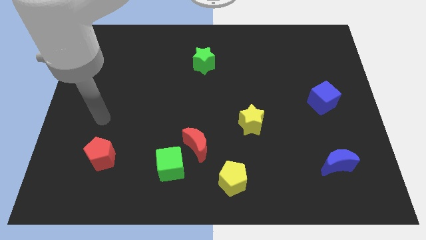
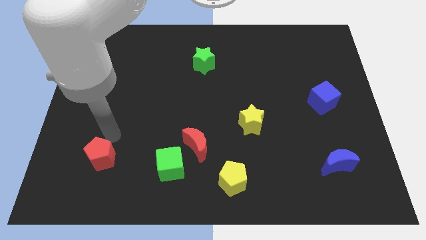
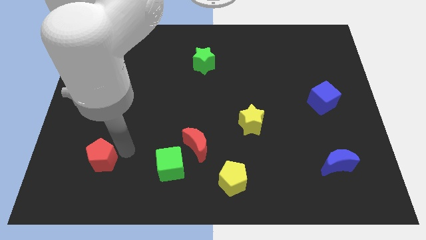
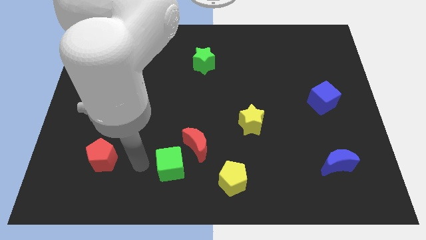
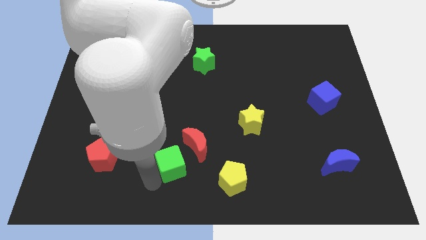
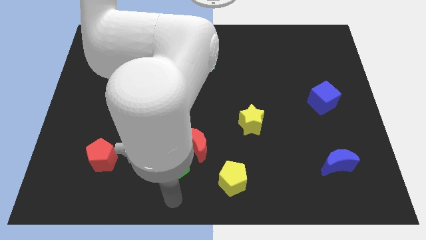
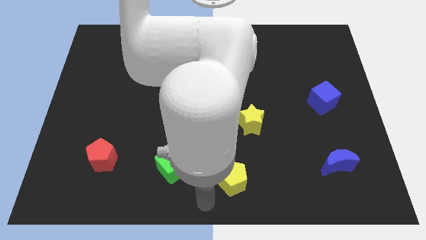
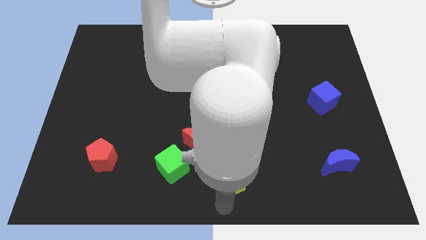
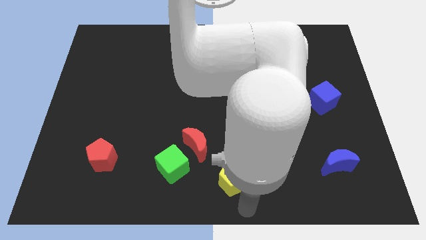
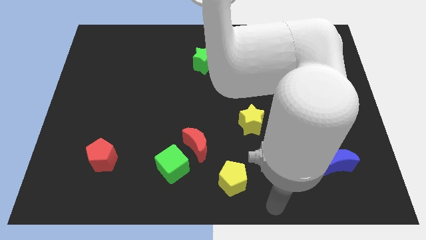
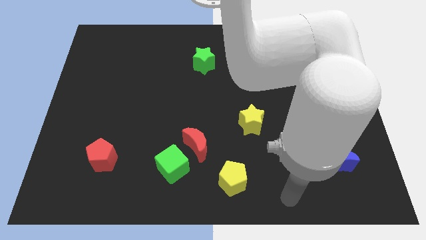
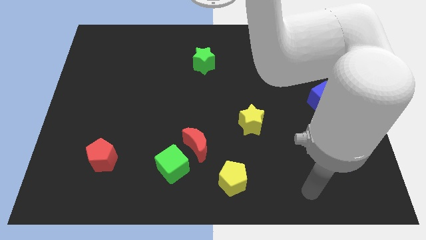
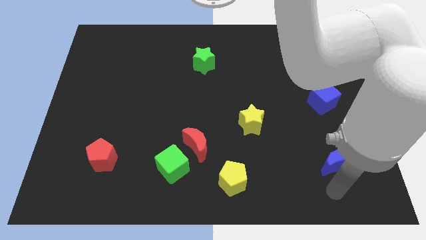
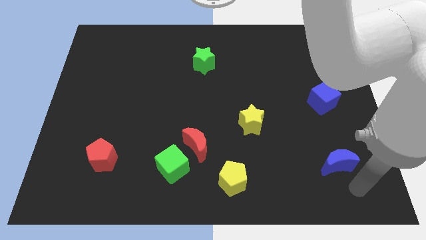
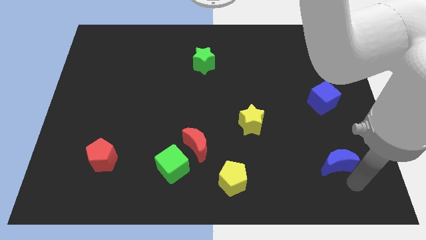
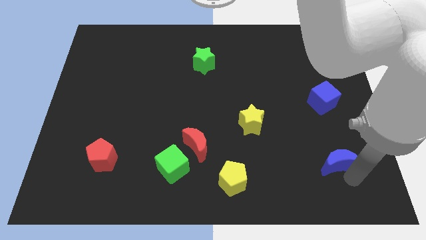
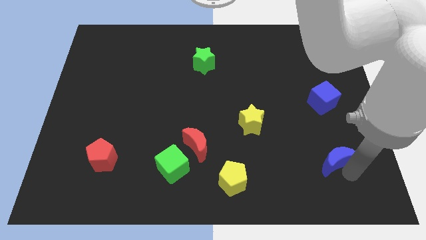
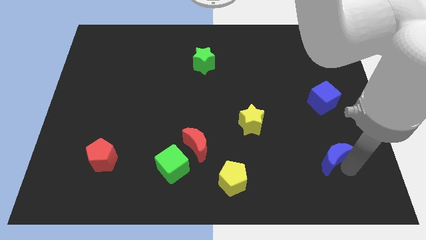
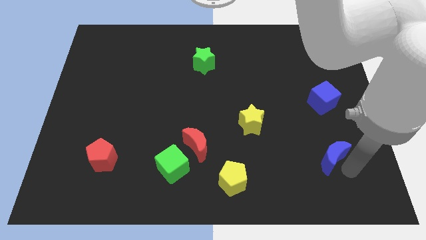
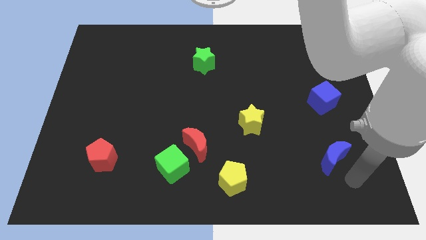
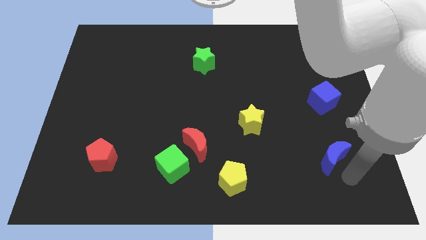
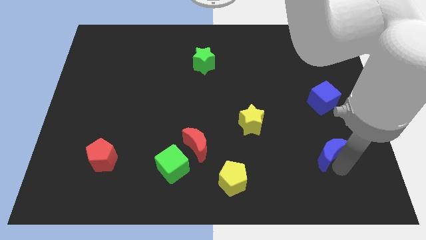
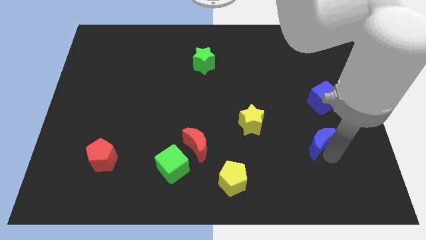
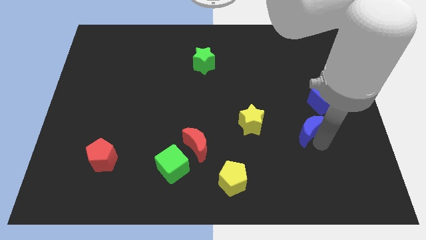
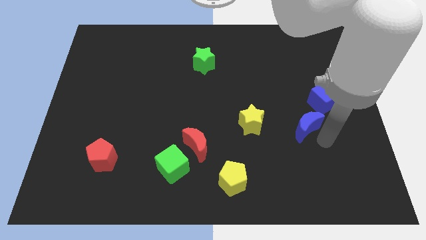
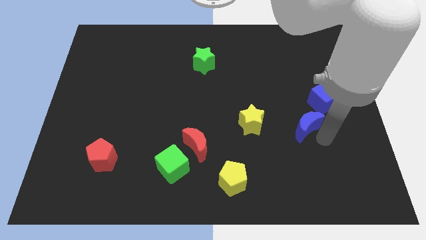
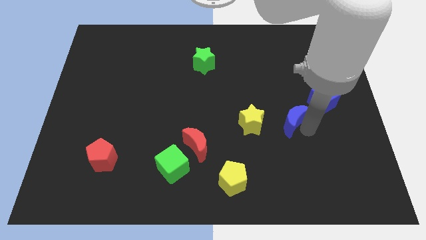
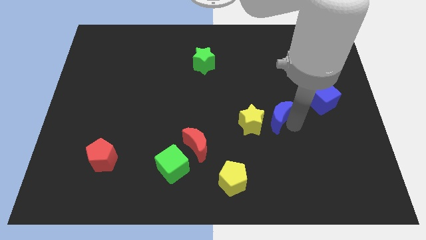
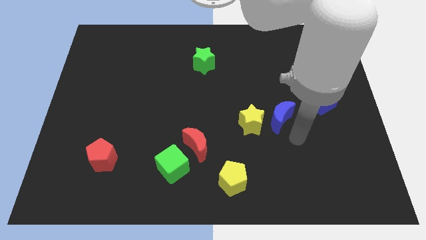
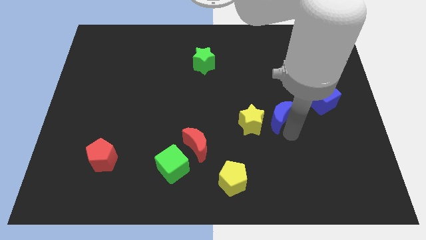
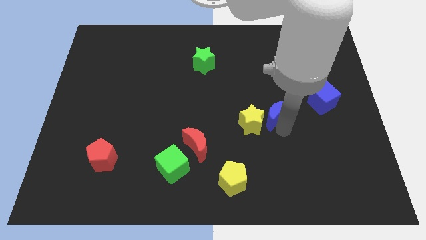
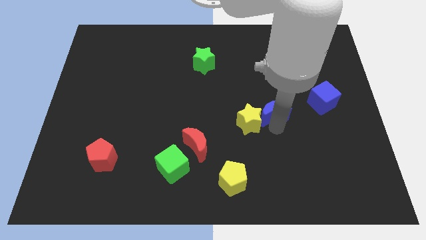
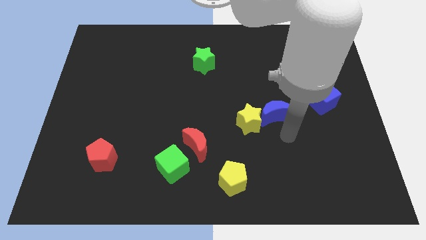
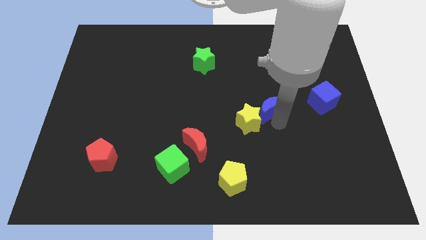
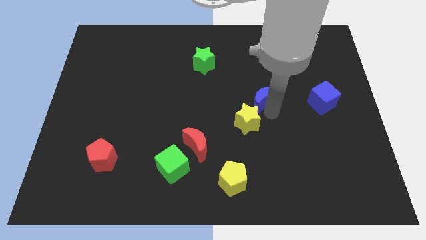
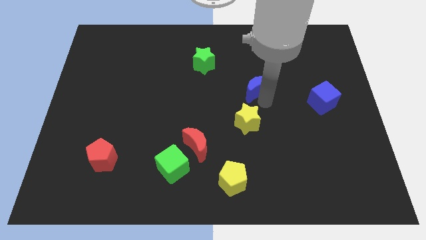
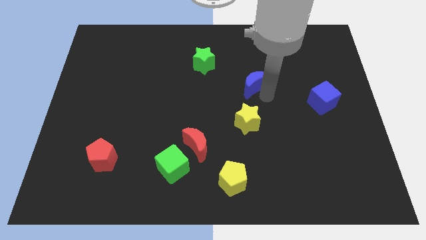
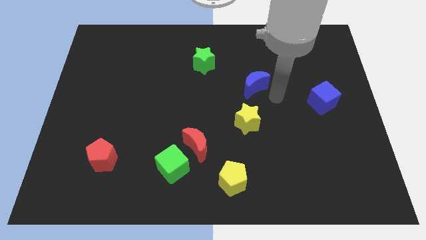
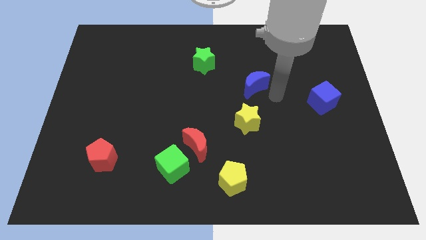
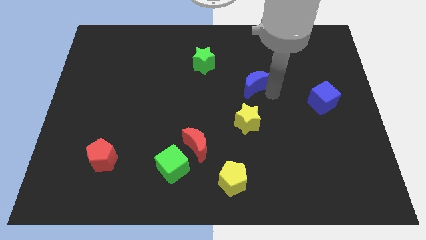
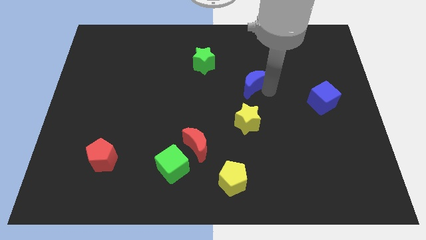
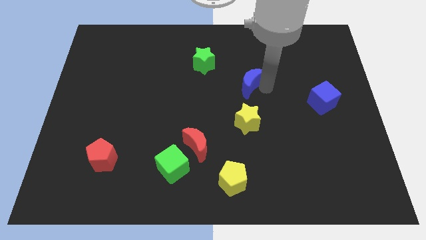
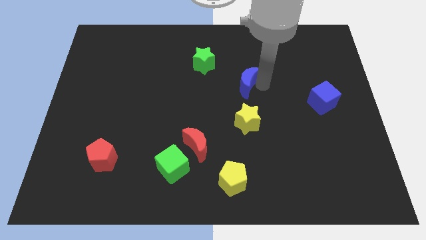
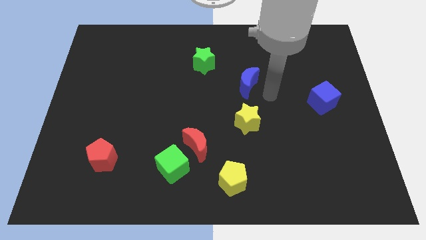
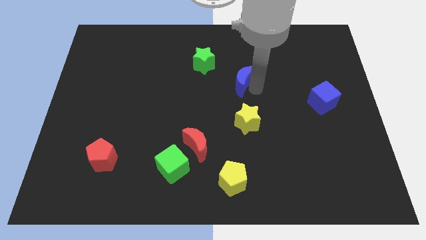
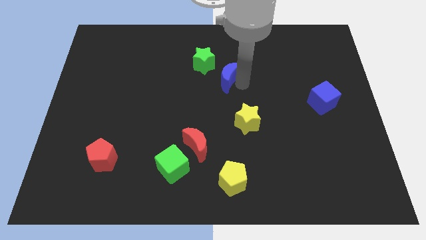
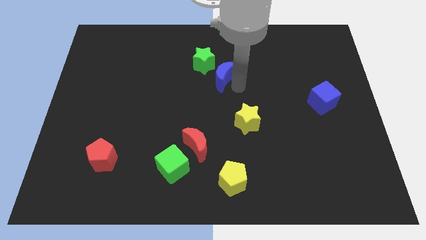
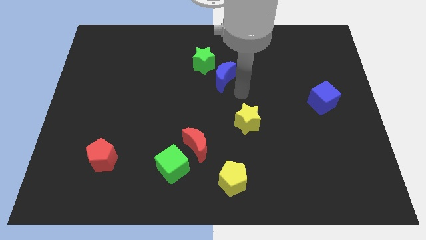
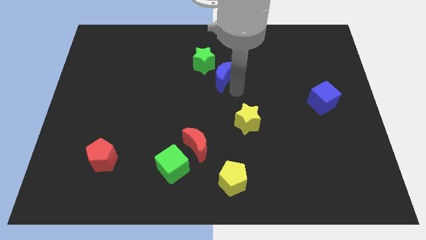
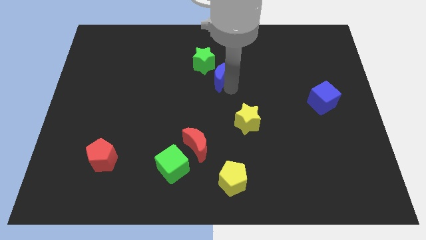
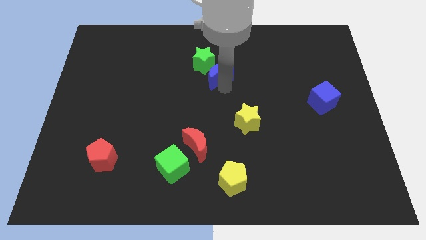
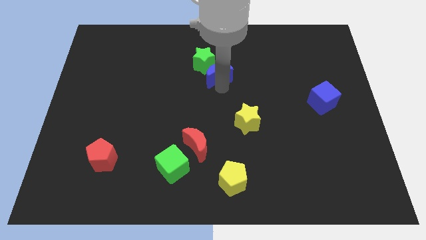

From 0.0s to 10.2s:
push the blue moon to the green star
